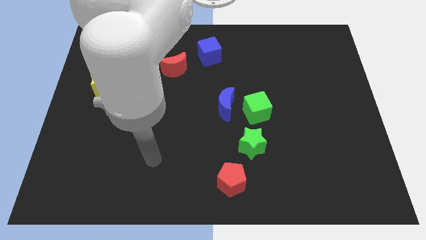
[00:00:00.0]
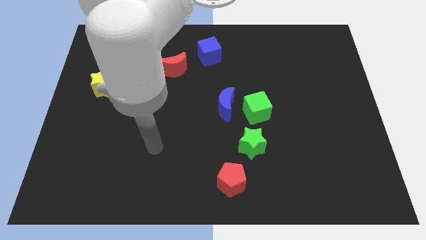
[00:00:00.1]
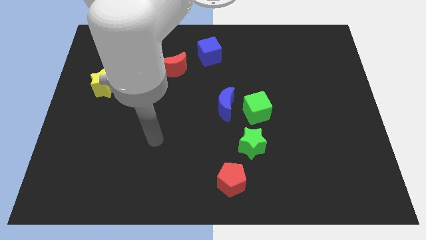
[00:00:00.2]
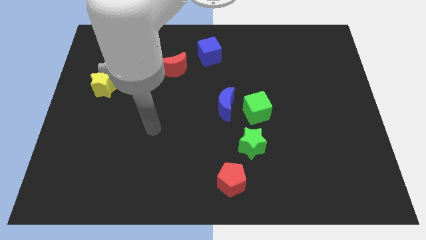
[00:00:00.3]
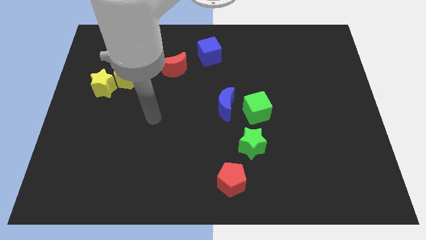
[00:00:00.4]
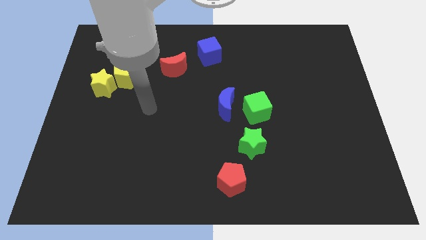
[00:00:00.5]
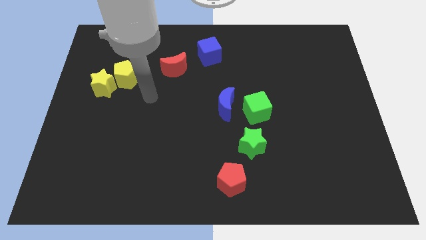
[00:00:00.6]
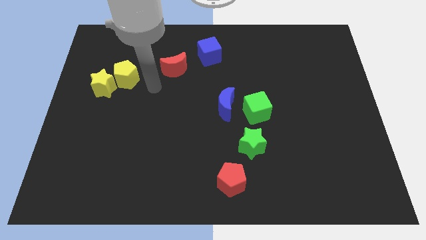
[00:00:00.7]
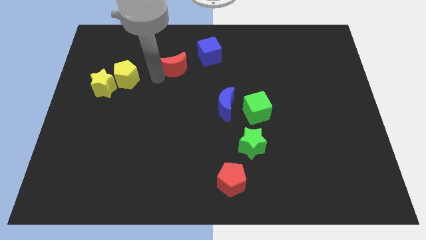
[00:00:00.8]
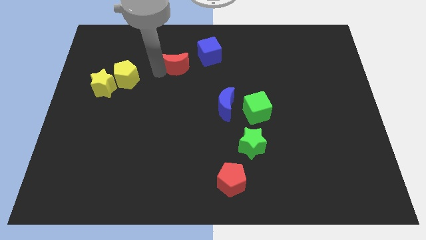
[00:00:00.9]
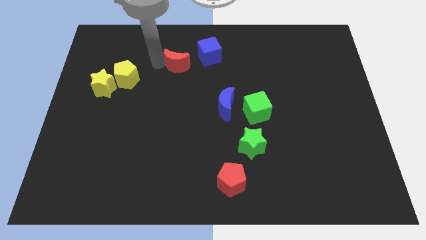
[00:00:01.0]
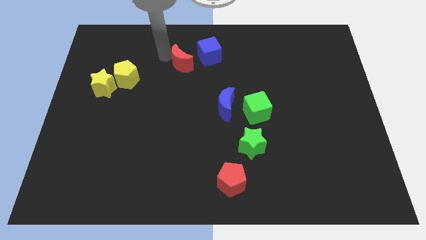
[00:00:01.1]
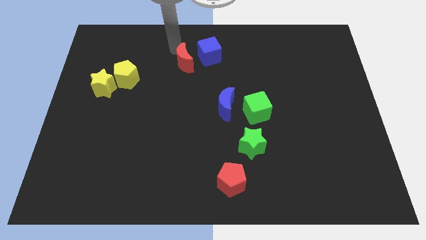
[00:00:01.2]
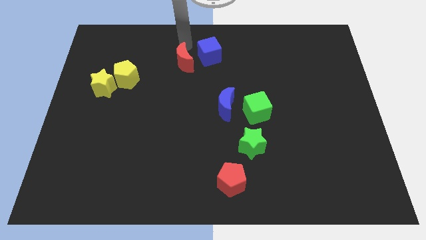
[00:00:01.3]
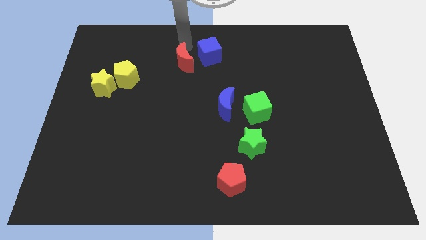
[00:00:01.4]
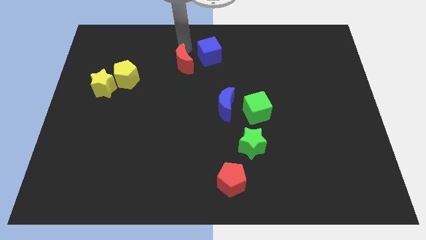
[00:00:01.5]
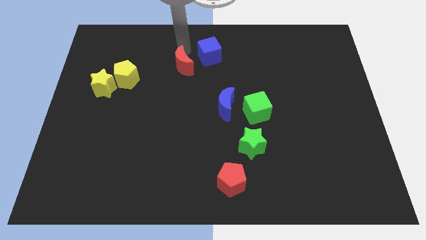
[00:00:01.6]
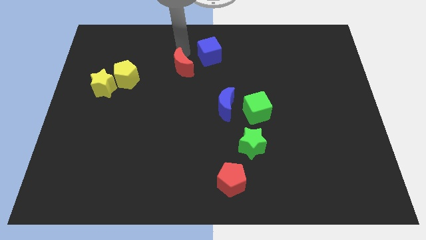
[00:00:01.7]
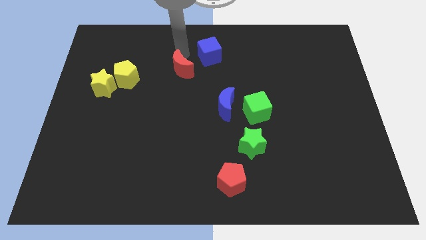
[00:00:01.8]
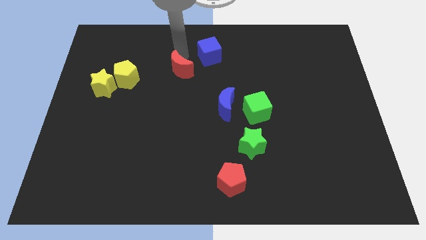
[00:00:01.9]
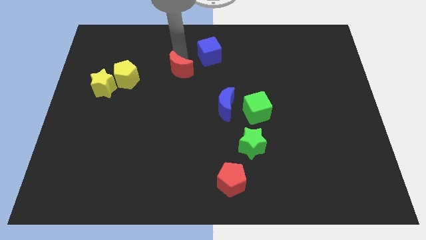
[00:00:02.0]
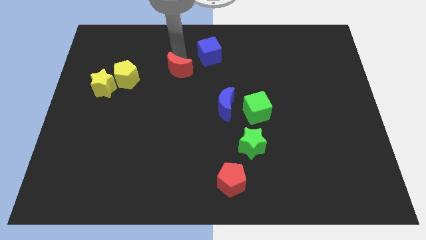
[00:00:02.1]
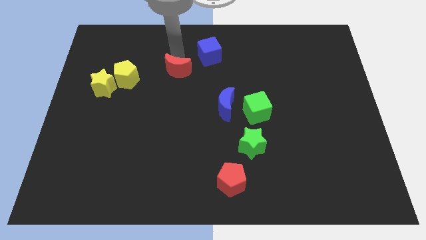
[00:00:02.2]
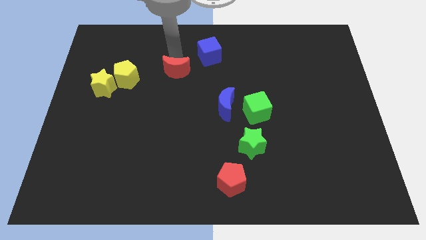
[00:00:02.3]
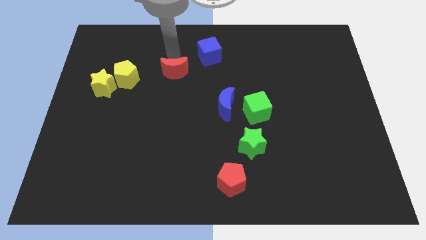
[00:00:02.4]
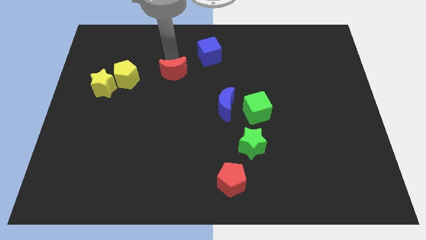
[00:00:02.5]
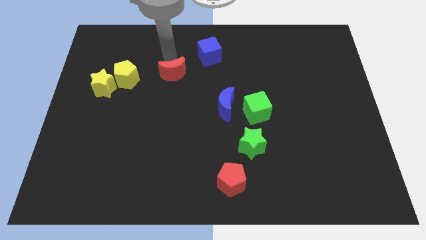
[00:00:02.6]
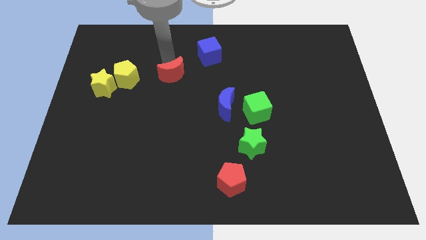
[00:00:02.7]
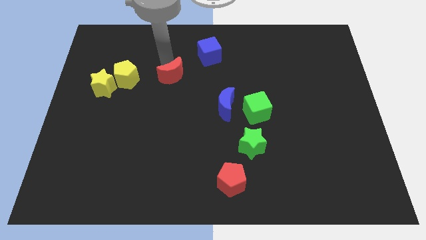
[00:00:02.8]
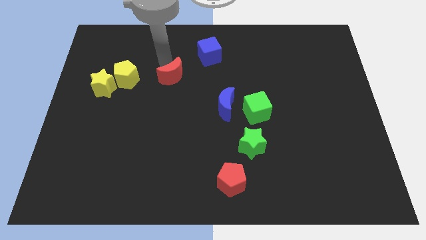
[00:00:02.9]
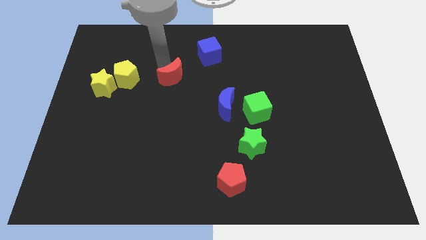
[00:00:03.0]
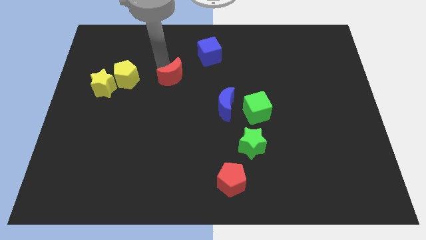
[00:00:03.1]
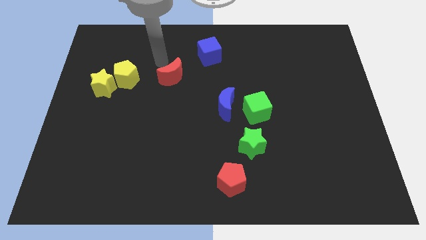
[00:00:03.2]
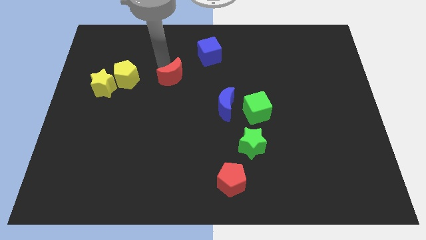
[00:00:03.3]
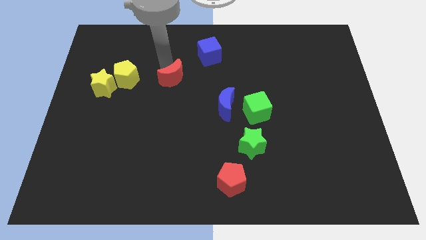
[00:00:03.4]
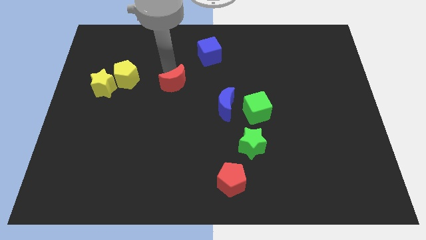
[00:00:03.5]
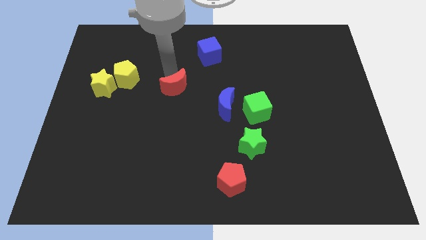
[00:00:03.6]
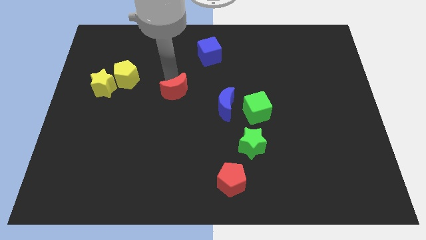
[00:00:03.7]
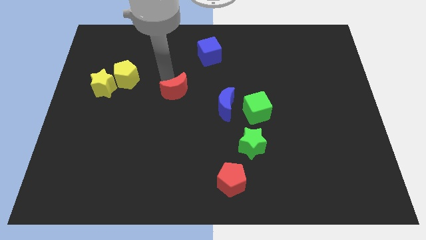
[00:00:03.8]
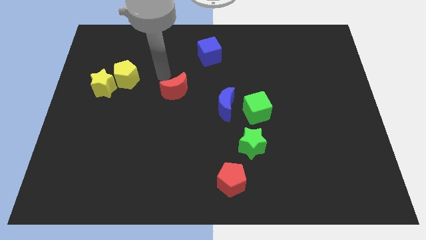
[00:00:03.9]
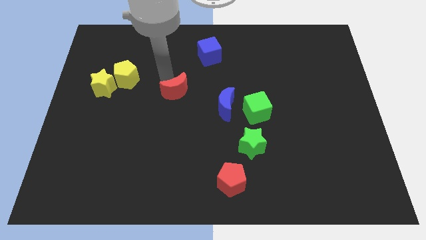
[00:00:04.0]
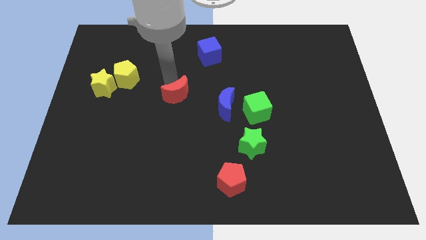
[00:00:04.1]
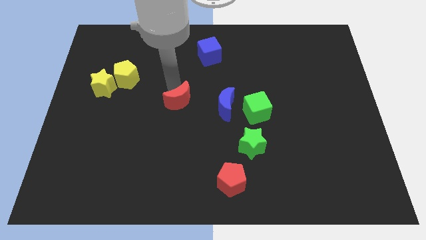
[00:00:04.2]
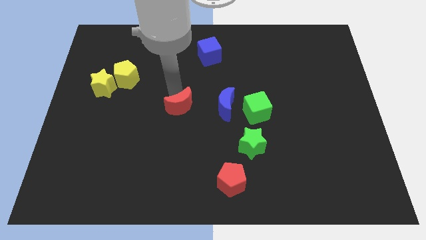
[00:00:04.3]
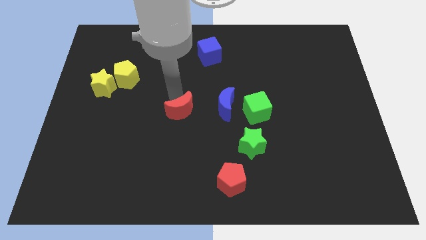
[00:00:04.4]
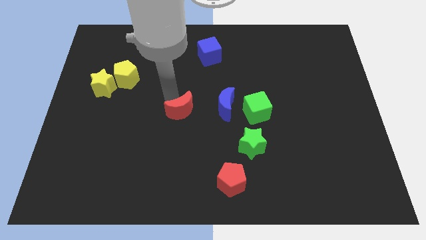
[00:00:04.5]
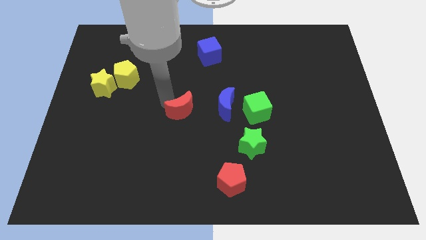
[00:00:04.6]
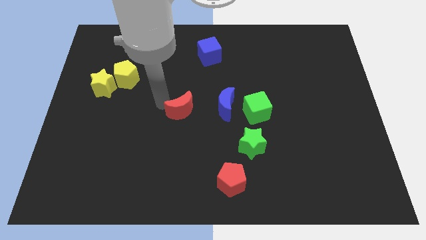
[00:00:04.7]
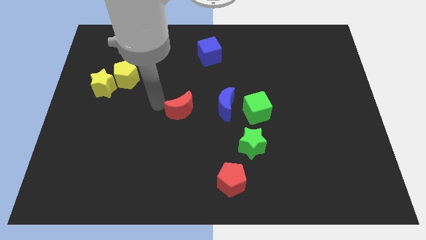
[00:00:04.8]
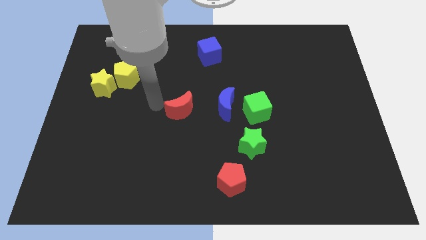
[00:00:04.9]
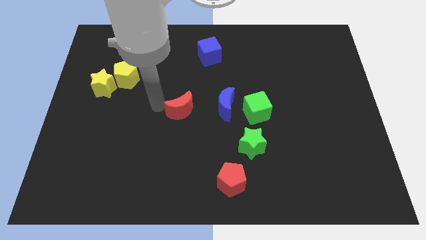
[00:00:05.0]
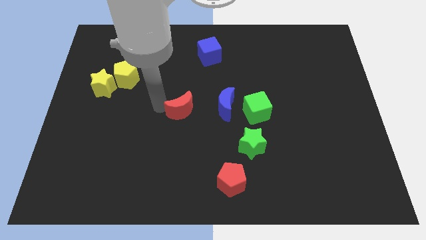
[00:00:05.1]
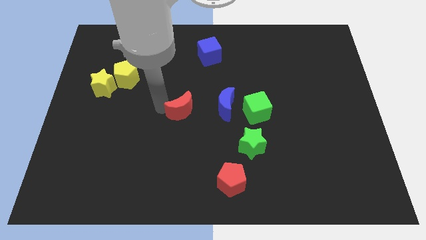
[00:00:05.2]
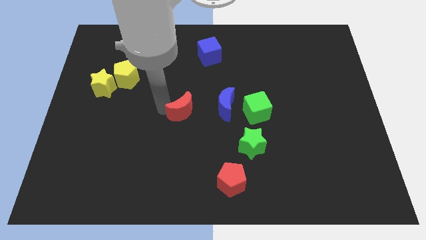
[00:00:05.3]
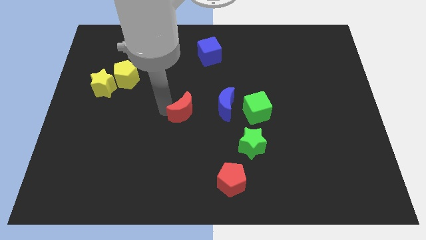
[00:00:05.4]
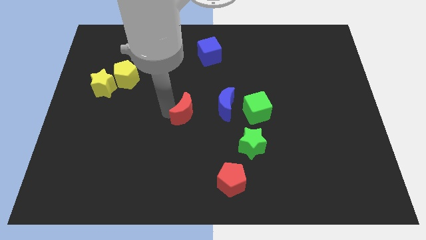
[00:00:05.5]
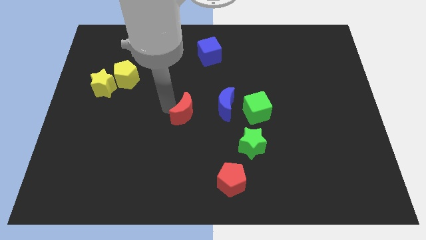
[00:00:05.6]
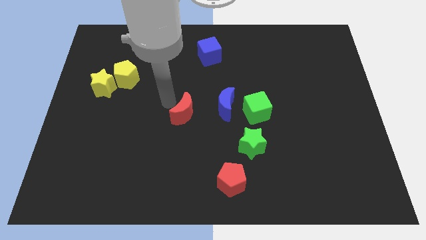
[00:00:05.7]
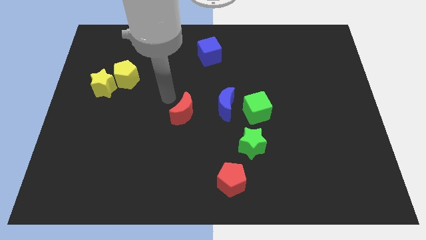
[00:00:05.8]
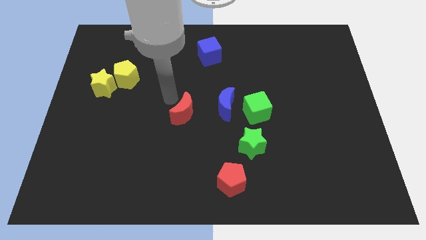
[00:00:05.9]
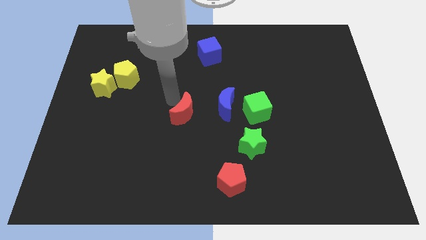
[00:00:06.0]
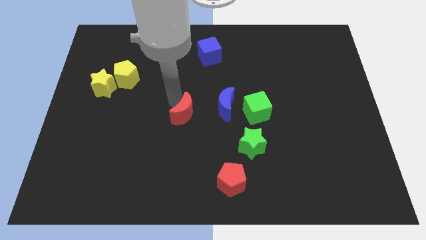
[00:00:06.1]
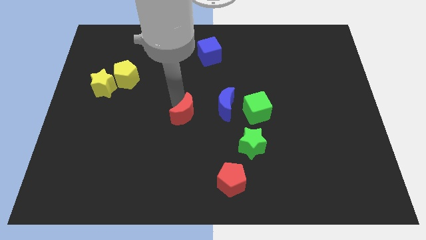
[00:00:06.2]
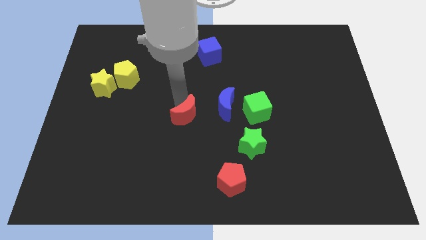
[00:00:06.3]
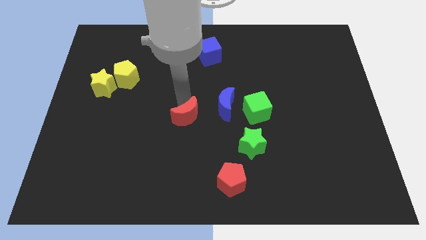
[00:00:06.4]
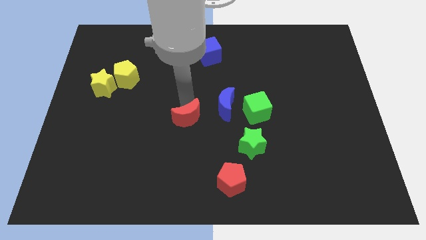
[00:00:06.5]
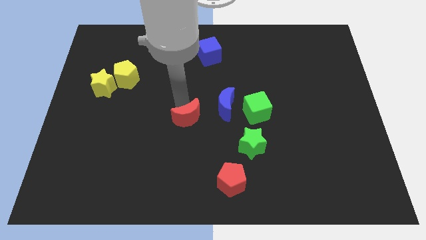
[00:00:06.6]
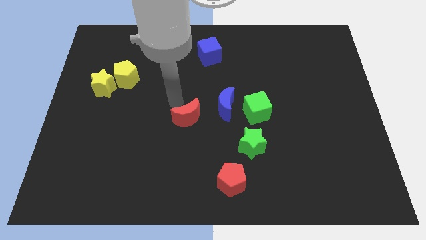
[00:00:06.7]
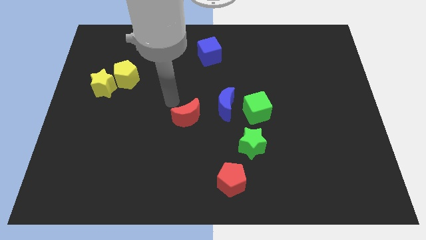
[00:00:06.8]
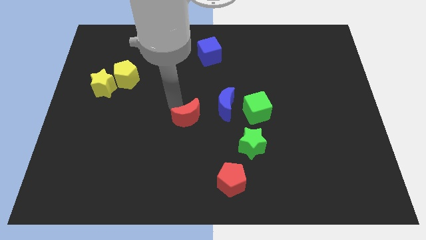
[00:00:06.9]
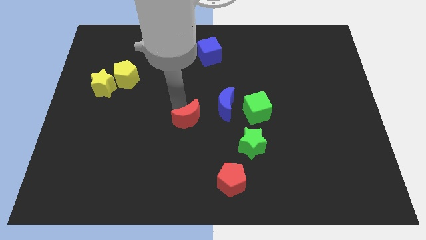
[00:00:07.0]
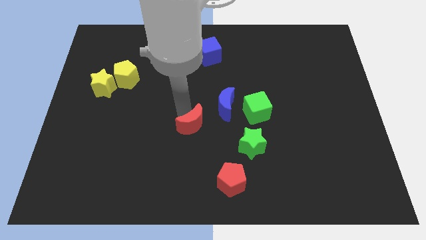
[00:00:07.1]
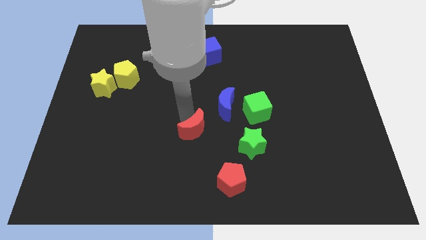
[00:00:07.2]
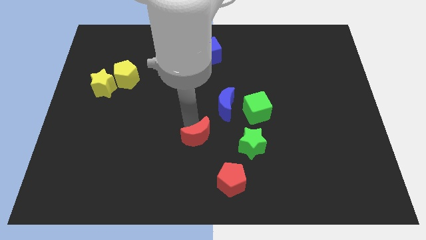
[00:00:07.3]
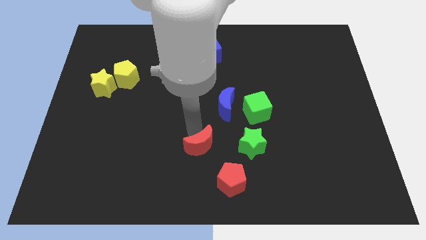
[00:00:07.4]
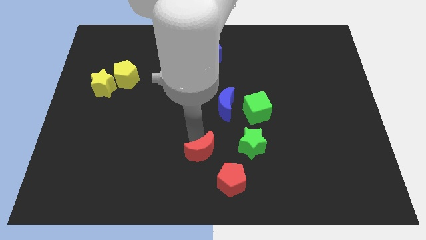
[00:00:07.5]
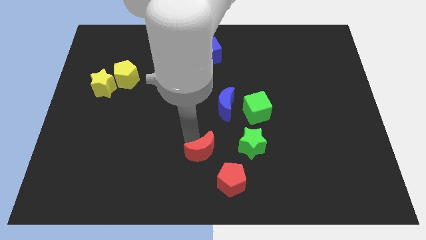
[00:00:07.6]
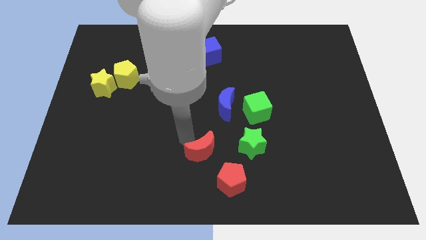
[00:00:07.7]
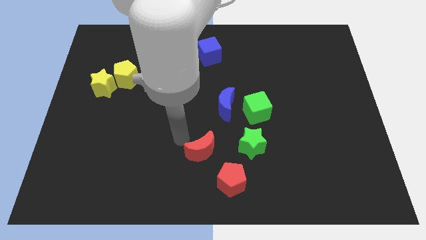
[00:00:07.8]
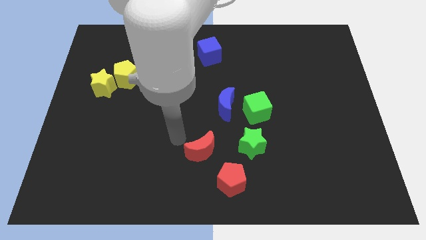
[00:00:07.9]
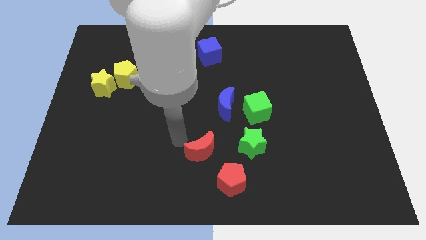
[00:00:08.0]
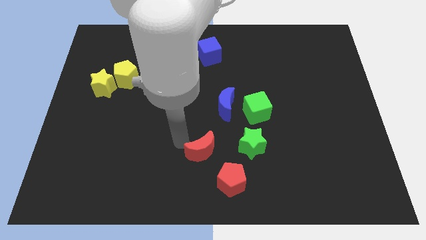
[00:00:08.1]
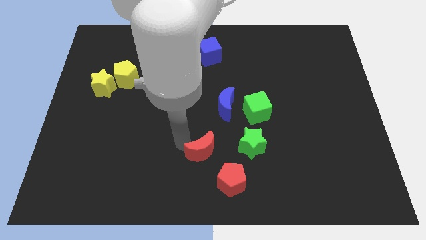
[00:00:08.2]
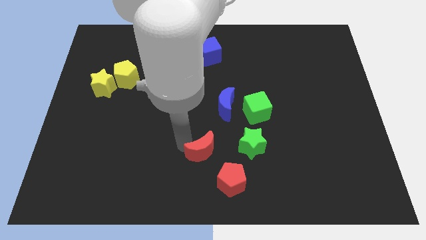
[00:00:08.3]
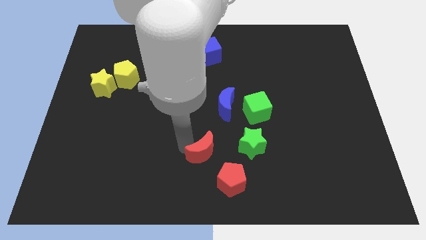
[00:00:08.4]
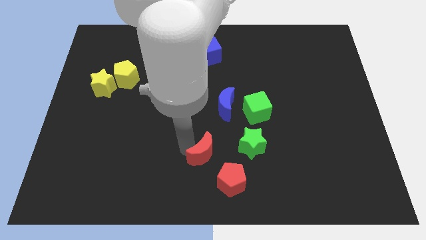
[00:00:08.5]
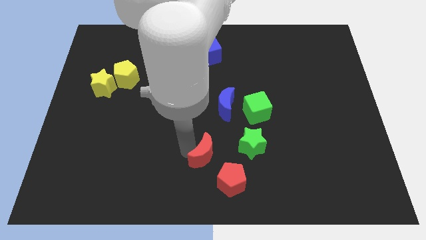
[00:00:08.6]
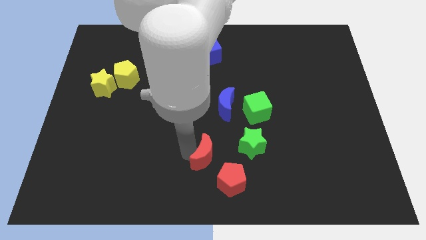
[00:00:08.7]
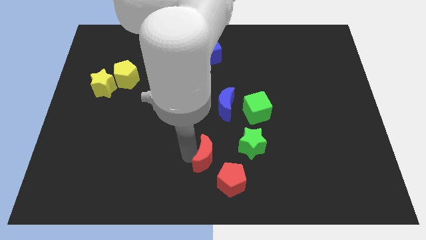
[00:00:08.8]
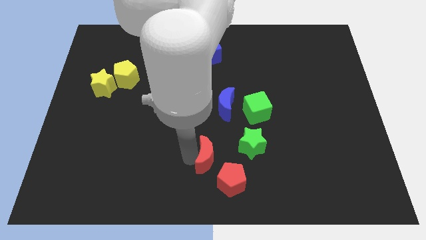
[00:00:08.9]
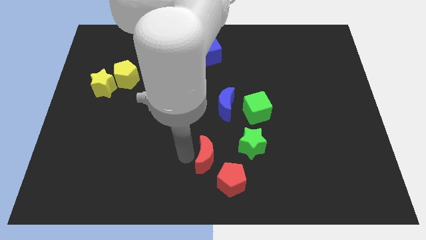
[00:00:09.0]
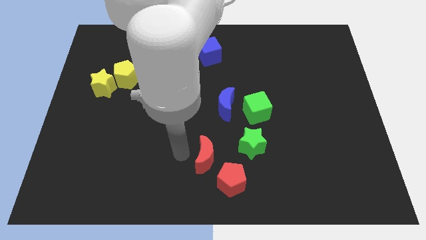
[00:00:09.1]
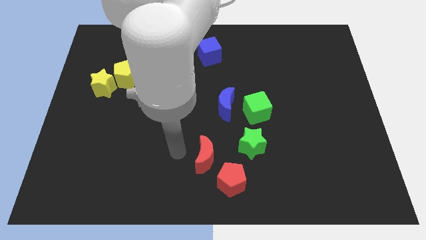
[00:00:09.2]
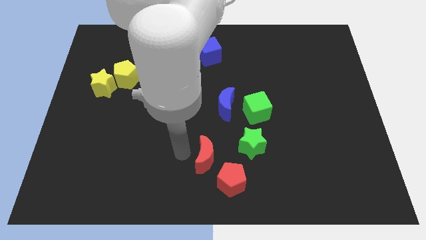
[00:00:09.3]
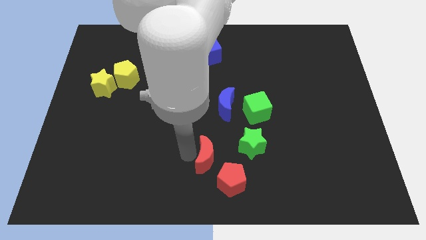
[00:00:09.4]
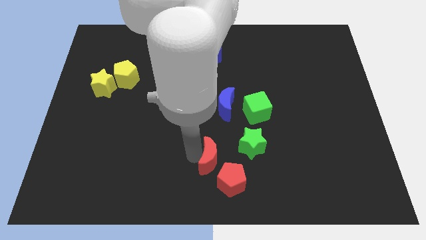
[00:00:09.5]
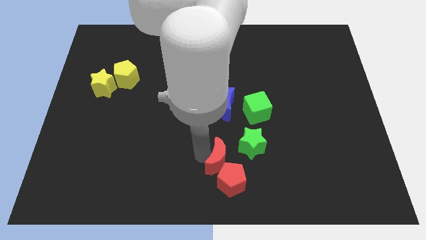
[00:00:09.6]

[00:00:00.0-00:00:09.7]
put the red moon close to the red pentagon
